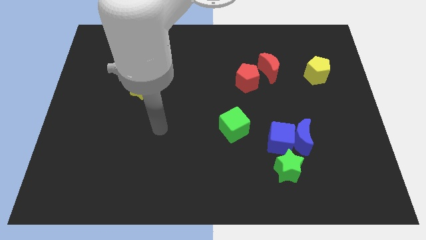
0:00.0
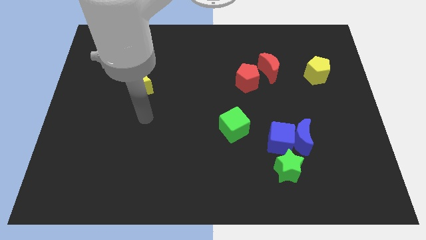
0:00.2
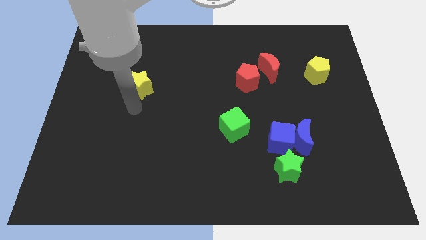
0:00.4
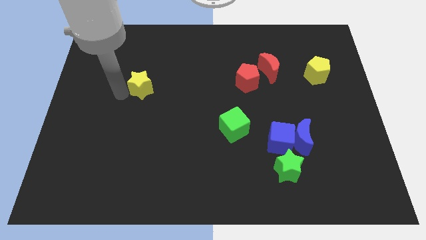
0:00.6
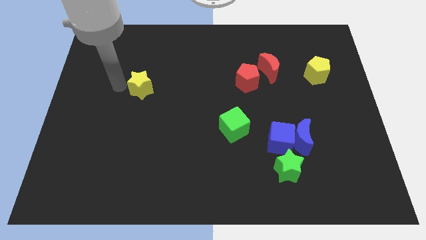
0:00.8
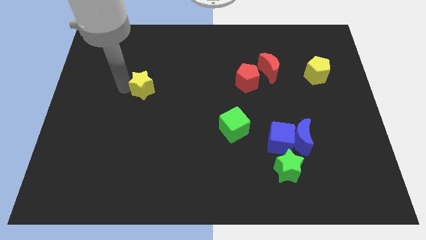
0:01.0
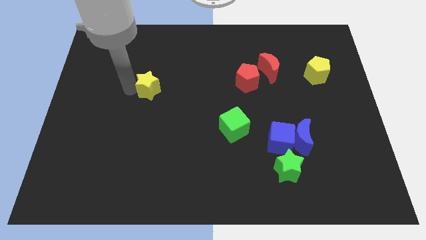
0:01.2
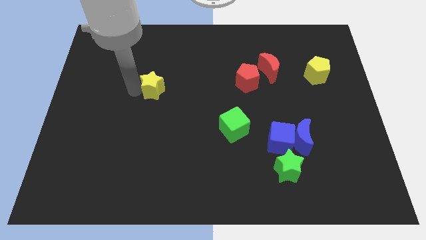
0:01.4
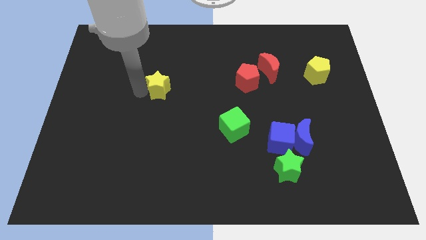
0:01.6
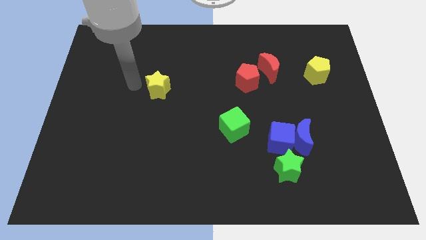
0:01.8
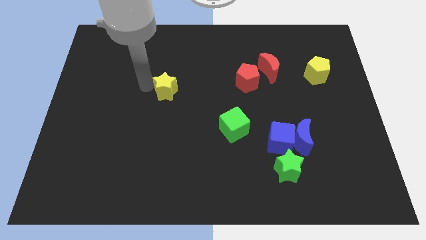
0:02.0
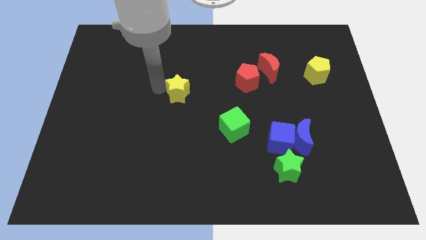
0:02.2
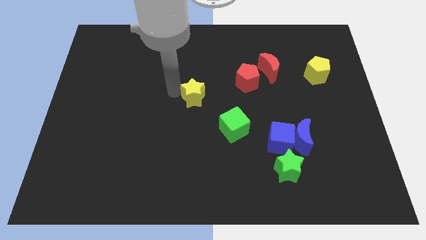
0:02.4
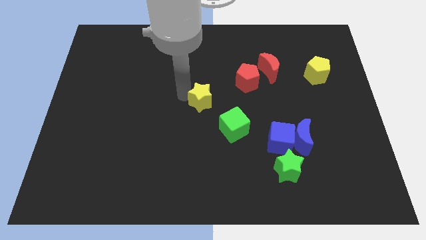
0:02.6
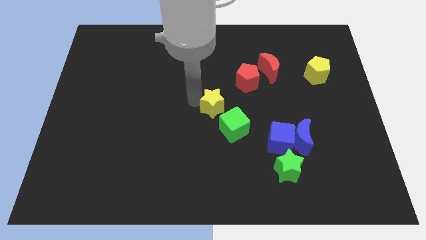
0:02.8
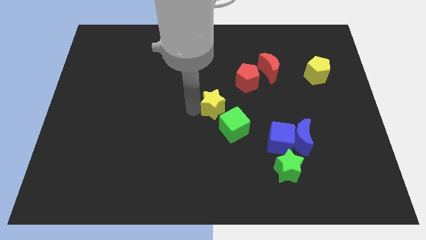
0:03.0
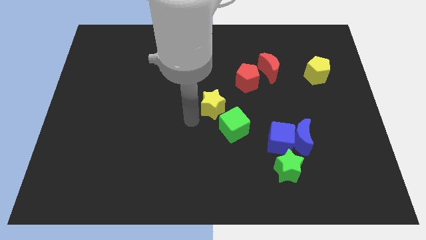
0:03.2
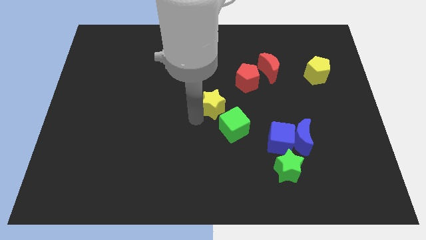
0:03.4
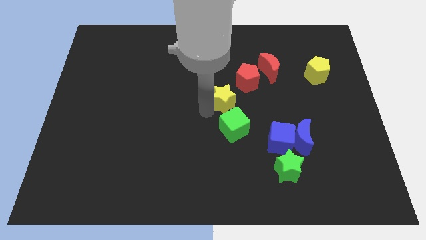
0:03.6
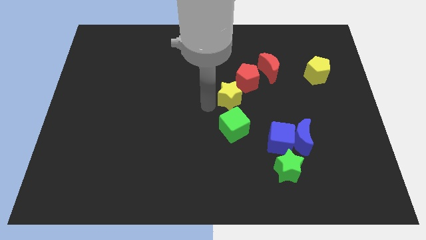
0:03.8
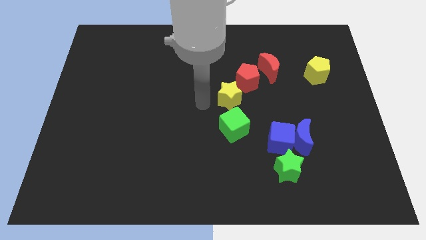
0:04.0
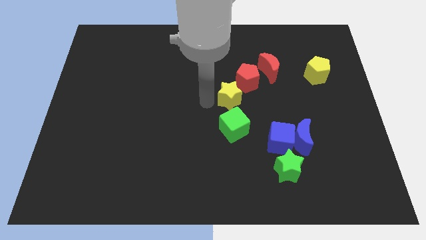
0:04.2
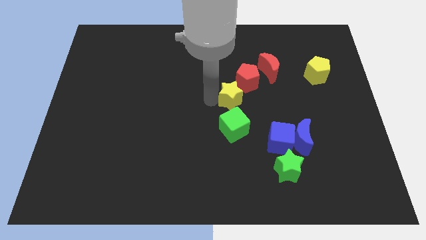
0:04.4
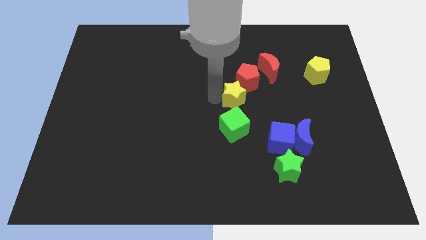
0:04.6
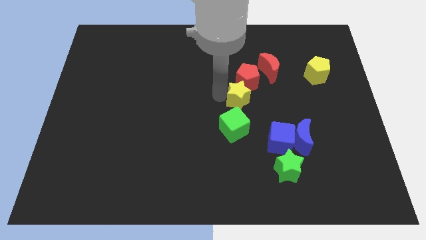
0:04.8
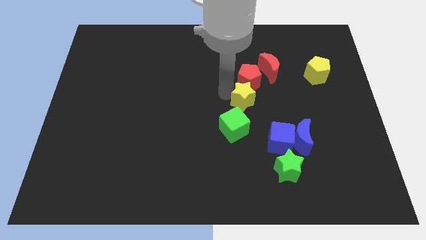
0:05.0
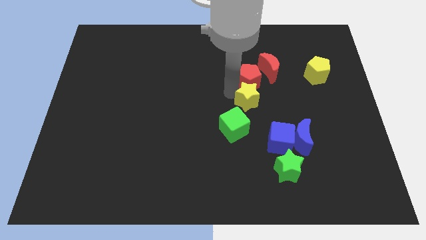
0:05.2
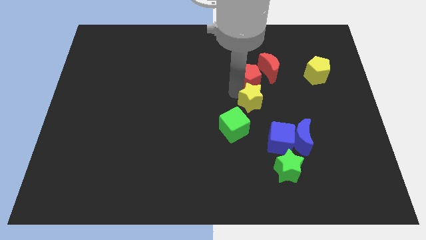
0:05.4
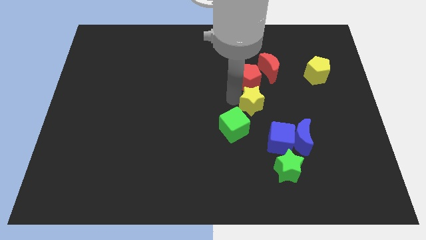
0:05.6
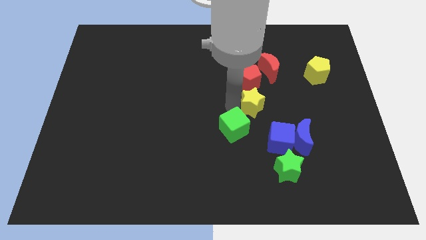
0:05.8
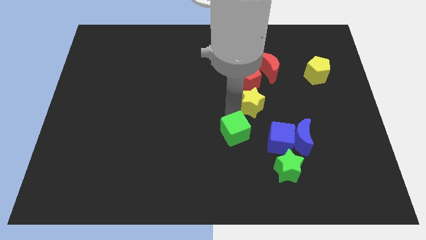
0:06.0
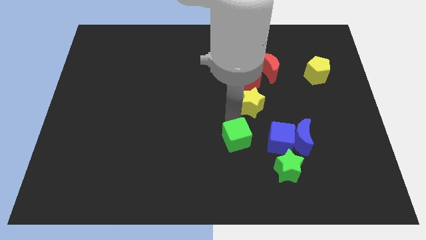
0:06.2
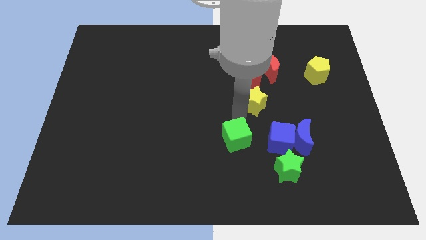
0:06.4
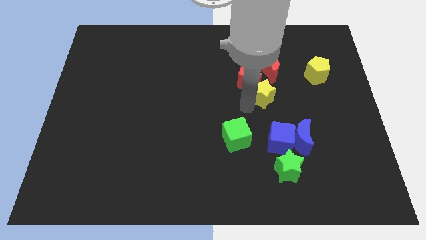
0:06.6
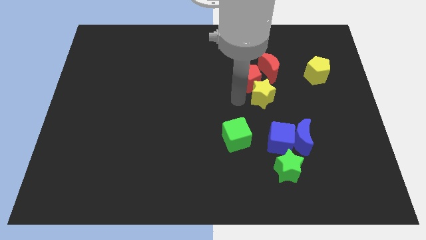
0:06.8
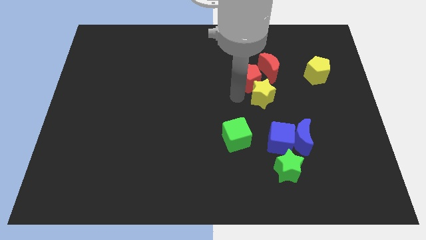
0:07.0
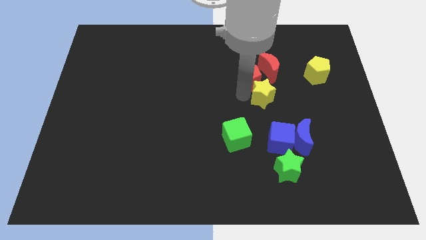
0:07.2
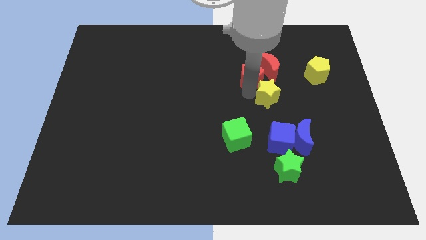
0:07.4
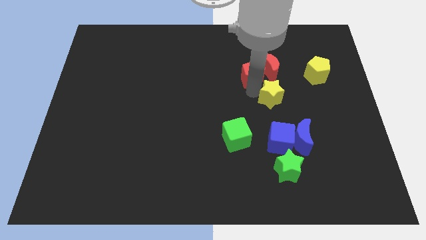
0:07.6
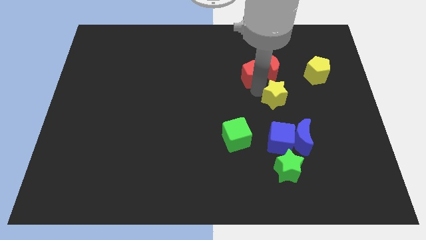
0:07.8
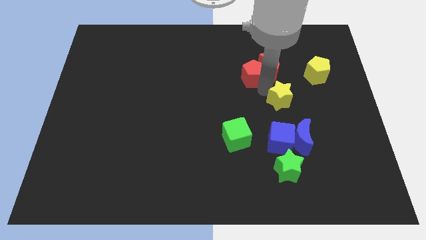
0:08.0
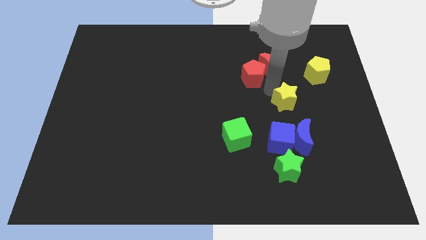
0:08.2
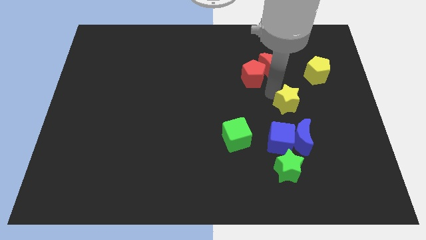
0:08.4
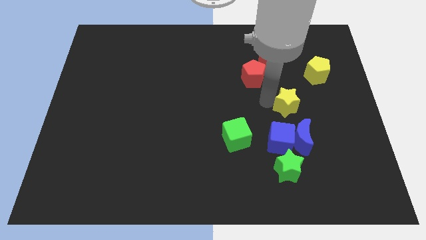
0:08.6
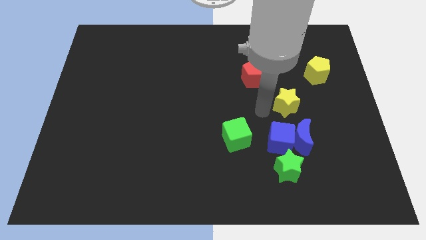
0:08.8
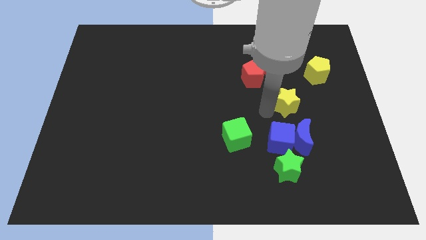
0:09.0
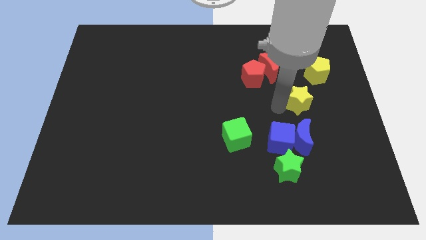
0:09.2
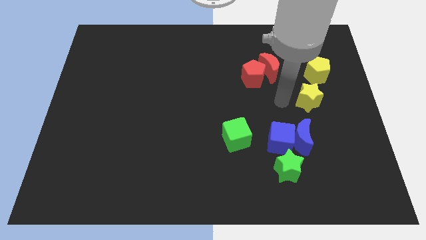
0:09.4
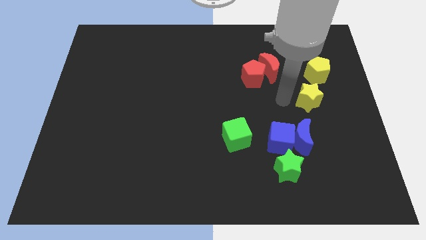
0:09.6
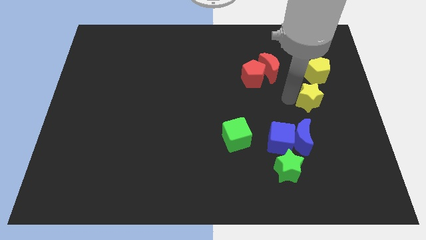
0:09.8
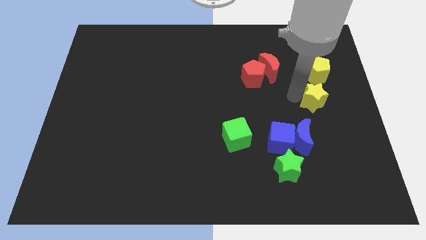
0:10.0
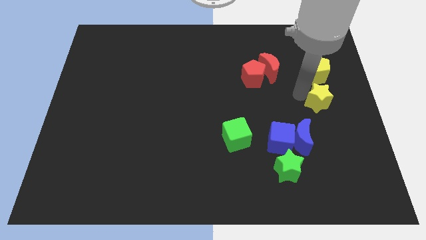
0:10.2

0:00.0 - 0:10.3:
move the yellow star to the center right

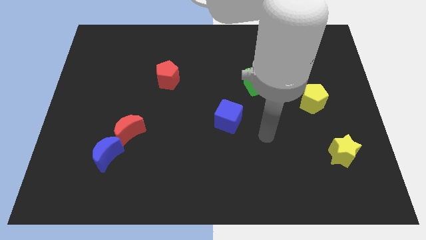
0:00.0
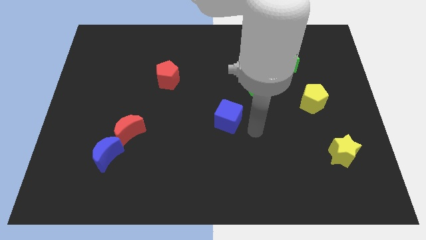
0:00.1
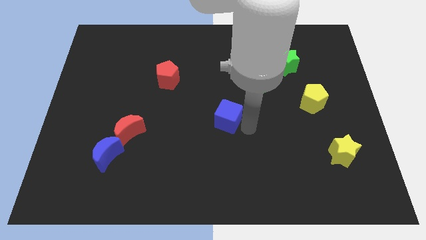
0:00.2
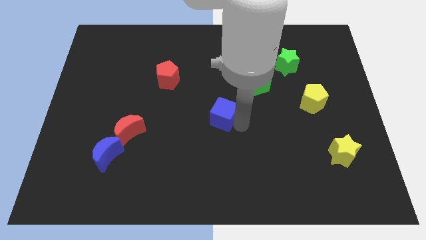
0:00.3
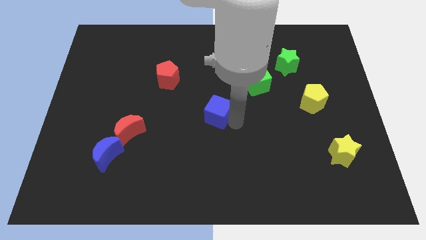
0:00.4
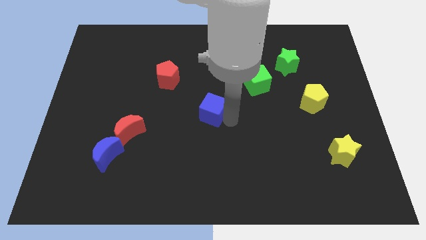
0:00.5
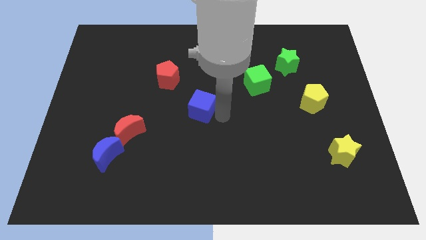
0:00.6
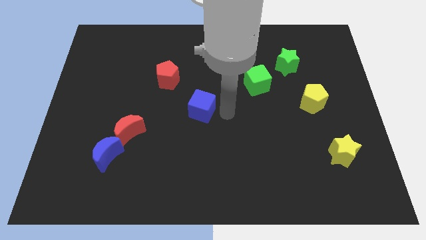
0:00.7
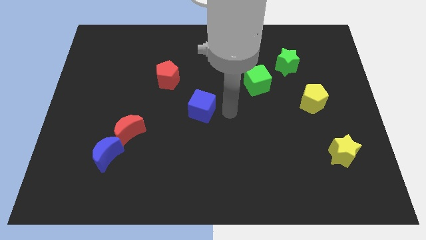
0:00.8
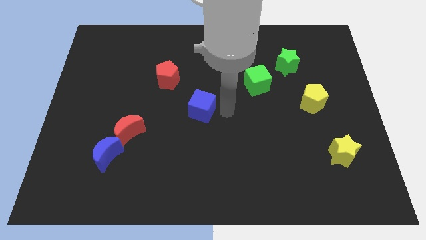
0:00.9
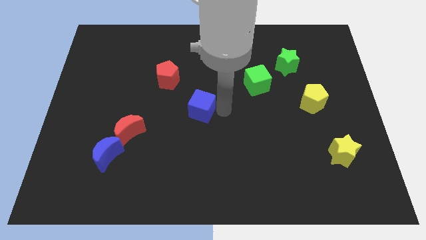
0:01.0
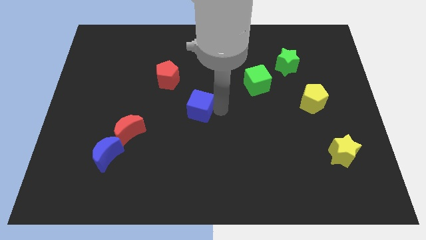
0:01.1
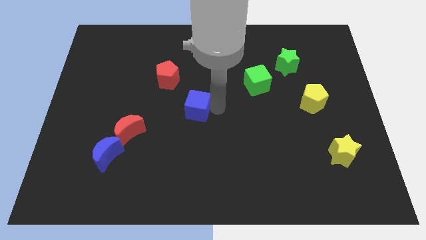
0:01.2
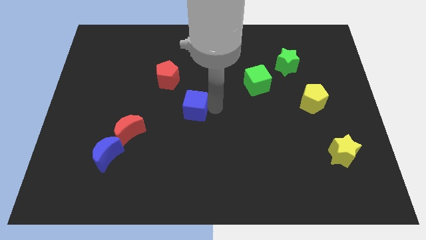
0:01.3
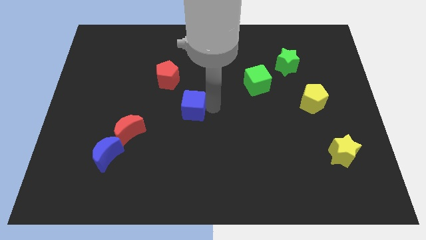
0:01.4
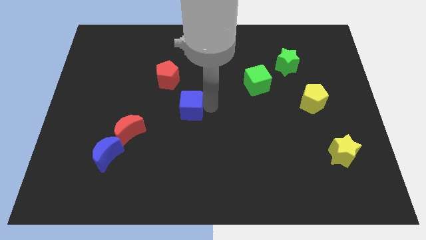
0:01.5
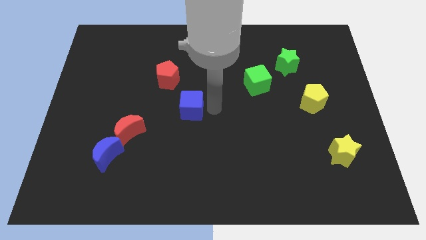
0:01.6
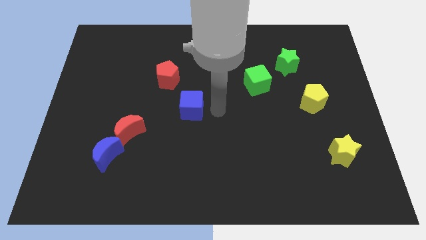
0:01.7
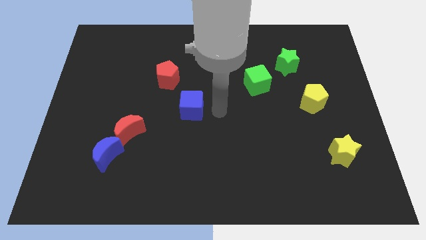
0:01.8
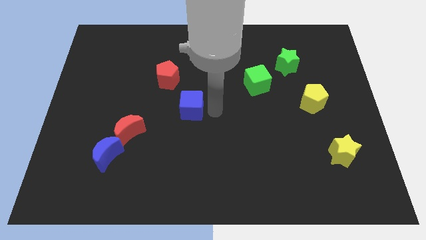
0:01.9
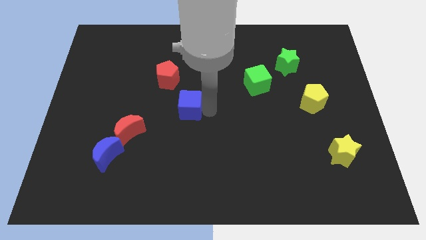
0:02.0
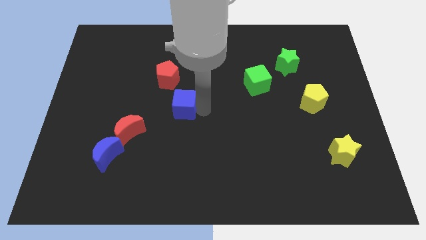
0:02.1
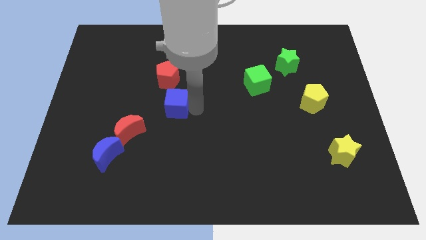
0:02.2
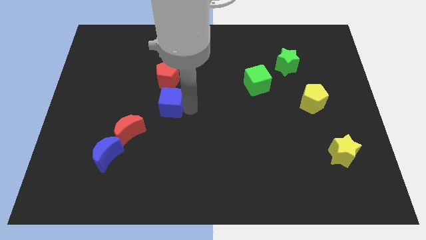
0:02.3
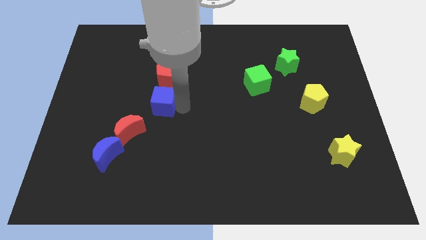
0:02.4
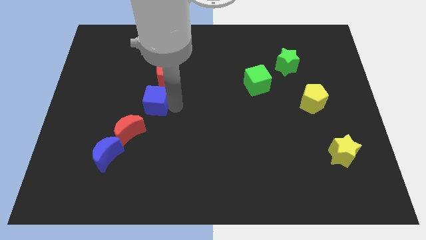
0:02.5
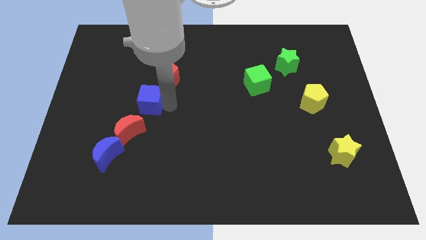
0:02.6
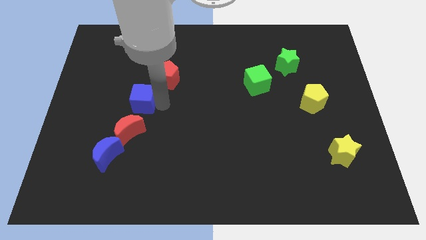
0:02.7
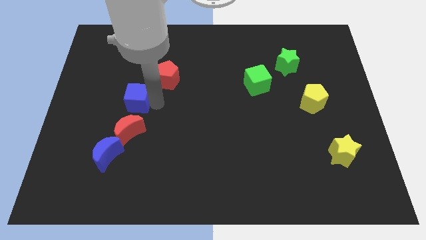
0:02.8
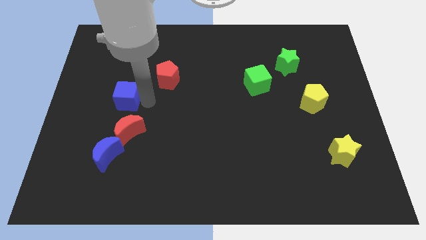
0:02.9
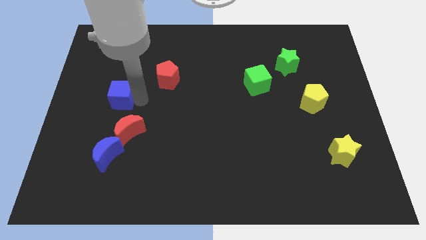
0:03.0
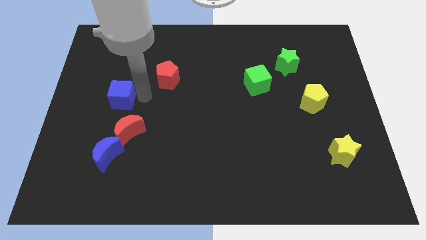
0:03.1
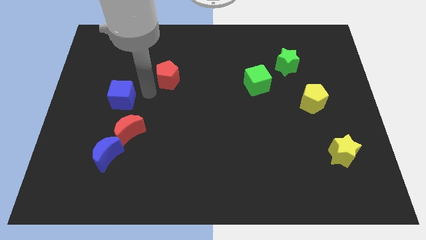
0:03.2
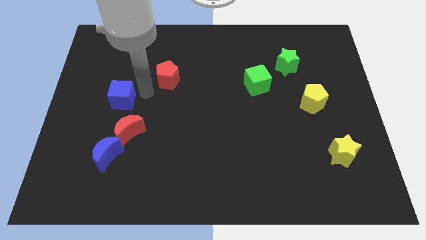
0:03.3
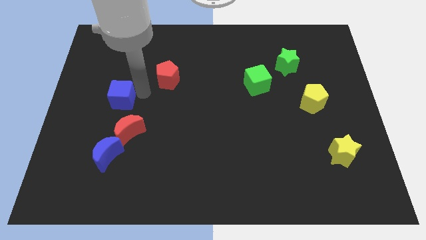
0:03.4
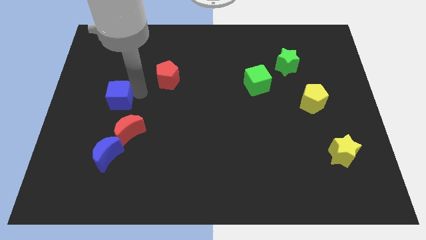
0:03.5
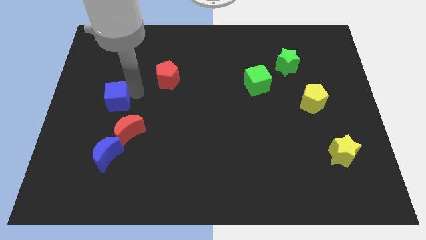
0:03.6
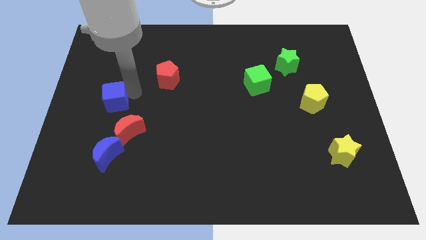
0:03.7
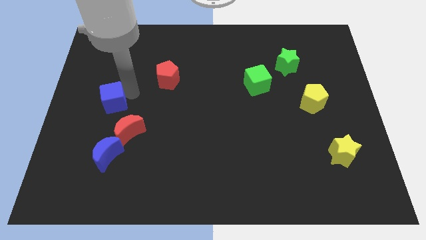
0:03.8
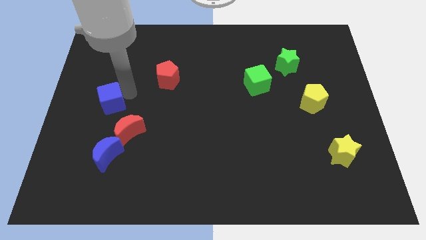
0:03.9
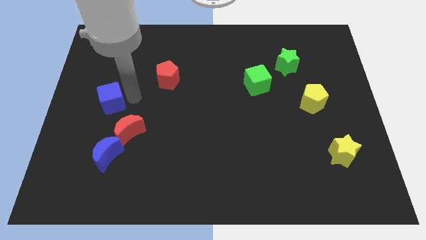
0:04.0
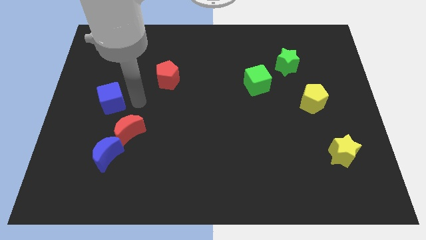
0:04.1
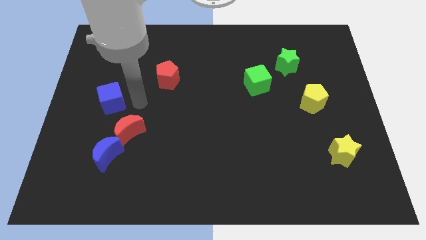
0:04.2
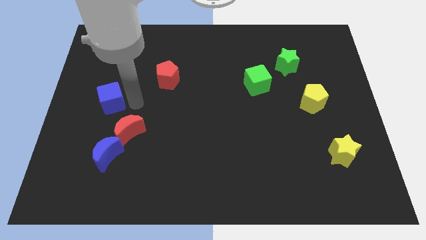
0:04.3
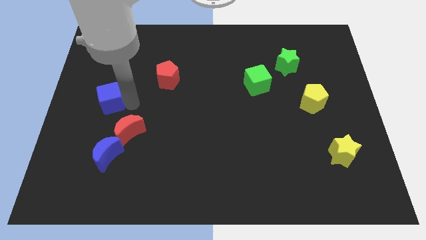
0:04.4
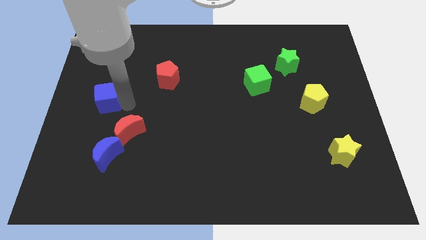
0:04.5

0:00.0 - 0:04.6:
push the blue cube to the left side
